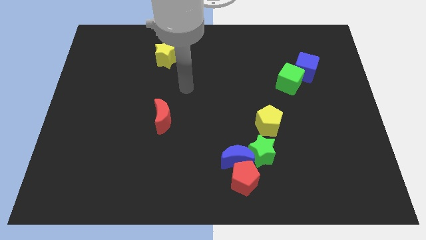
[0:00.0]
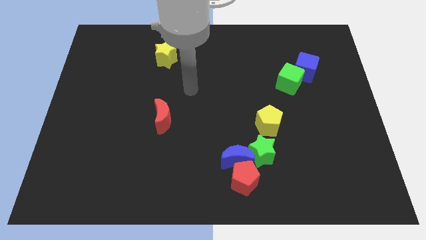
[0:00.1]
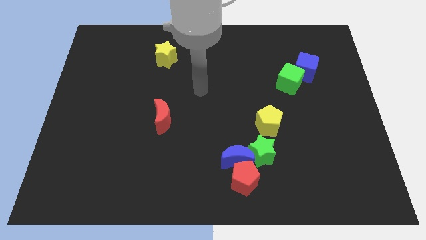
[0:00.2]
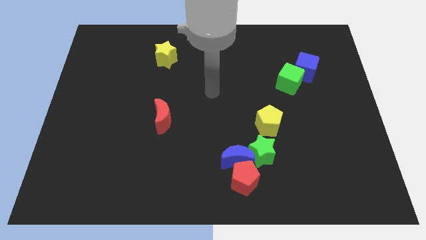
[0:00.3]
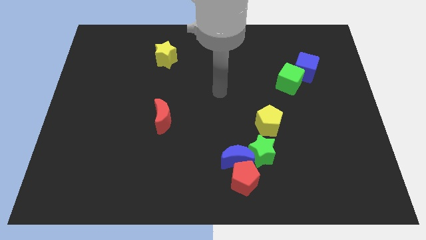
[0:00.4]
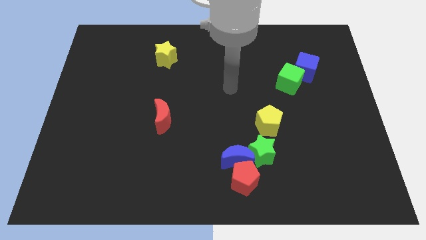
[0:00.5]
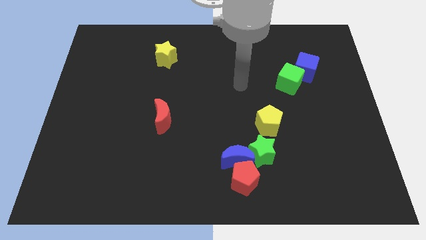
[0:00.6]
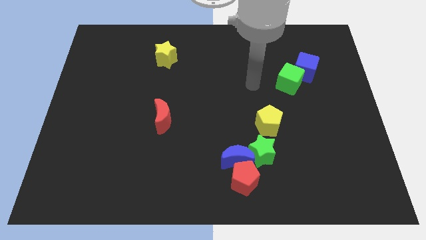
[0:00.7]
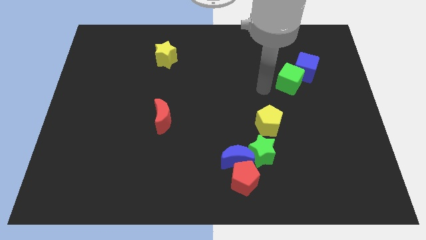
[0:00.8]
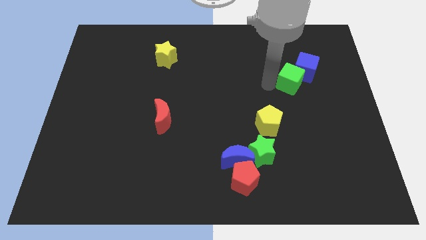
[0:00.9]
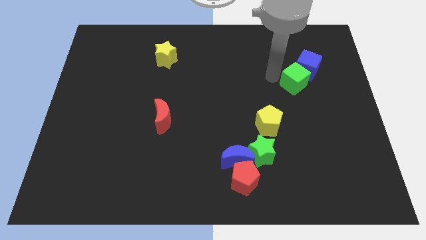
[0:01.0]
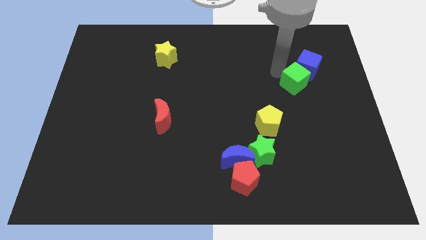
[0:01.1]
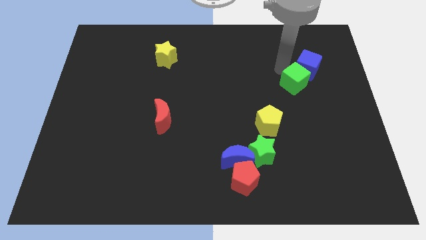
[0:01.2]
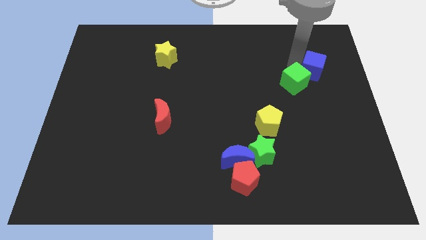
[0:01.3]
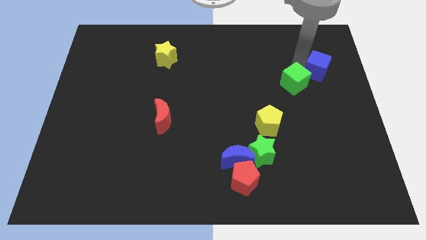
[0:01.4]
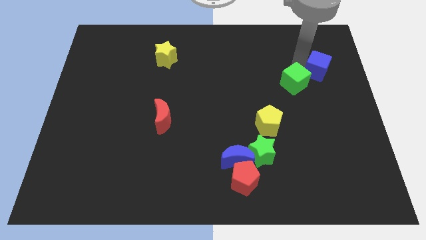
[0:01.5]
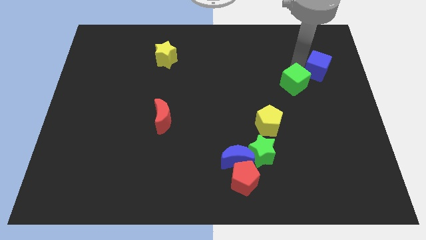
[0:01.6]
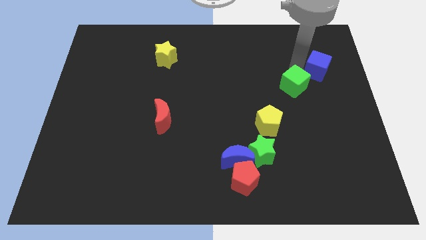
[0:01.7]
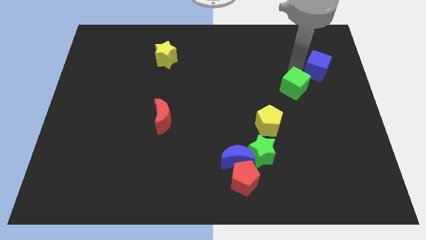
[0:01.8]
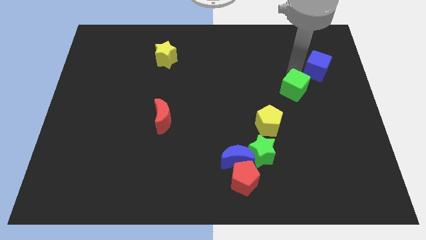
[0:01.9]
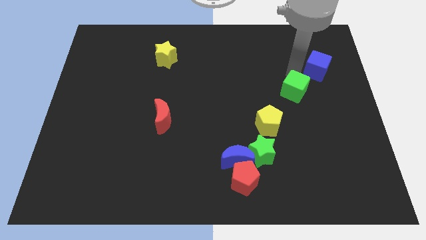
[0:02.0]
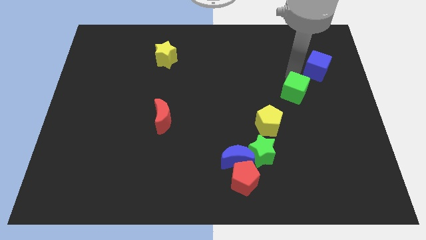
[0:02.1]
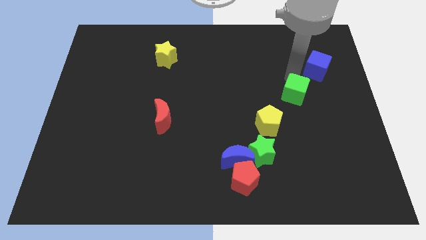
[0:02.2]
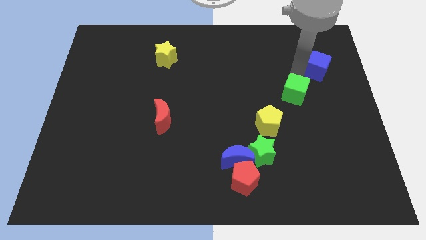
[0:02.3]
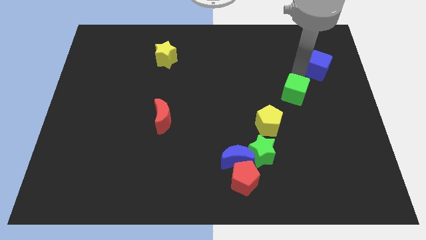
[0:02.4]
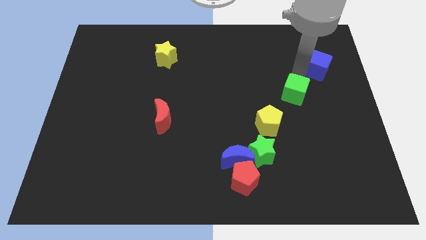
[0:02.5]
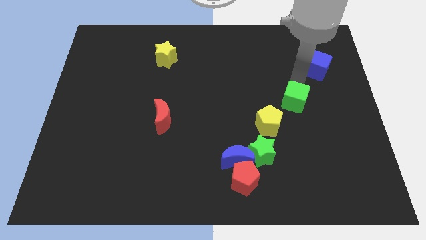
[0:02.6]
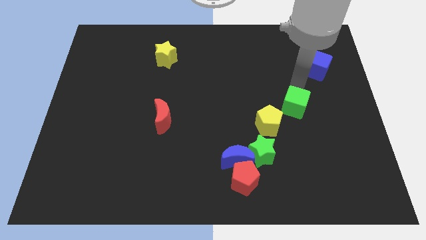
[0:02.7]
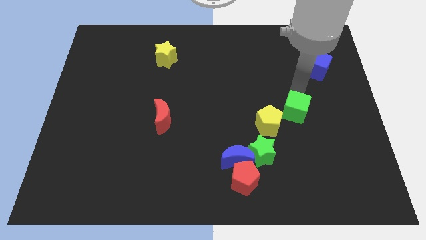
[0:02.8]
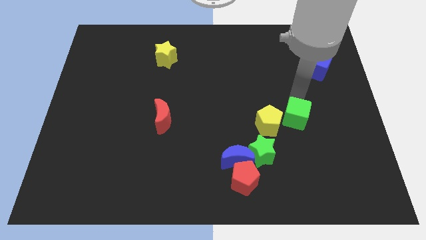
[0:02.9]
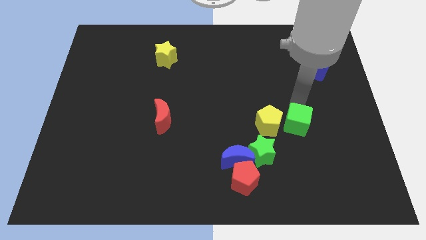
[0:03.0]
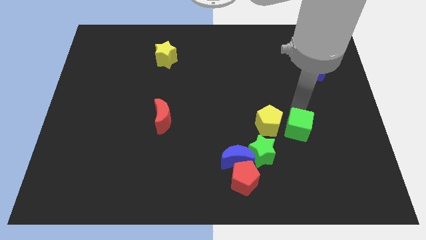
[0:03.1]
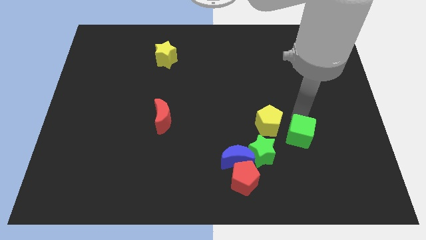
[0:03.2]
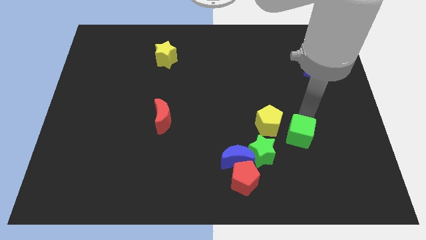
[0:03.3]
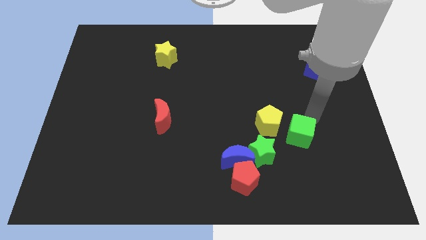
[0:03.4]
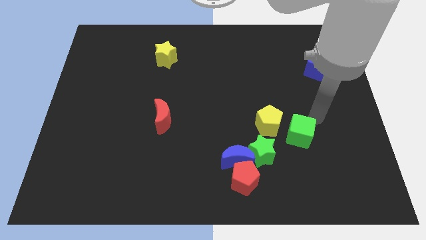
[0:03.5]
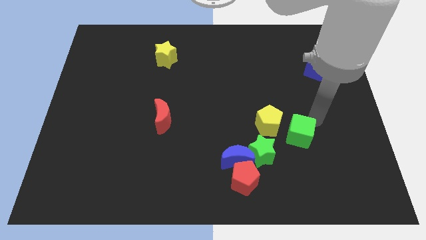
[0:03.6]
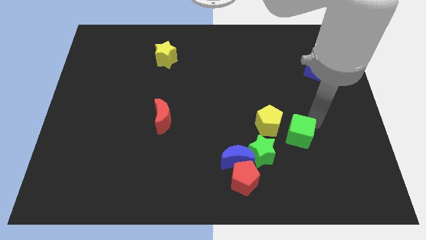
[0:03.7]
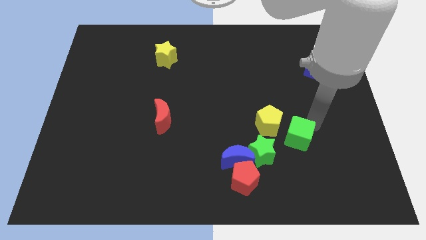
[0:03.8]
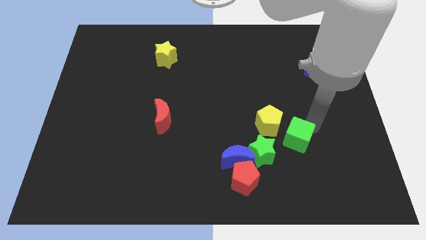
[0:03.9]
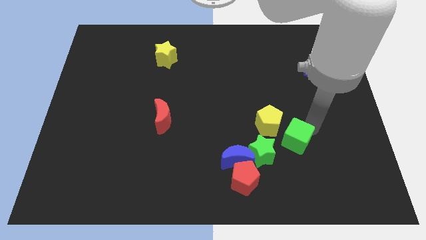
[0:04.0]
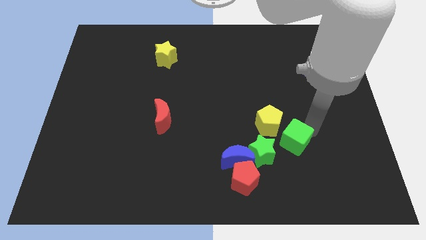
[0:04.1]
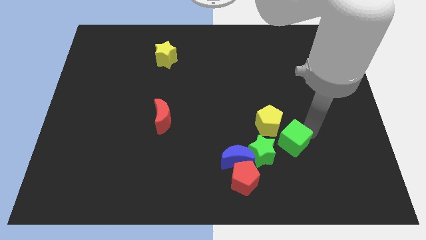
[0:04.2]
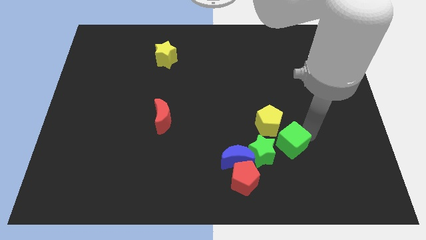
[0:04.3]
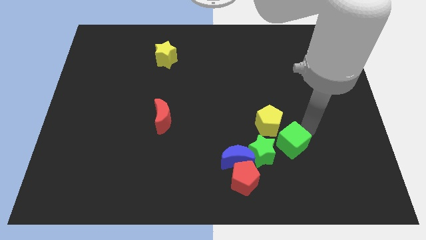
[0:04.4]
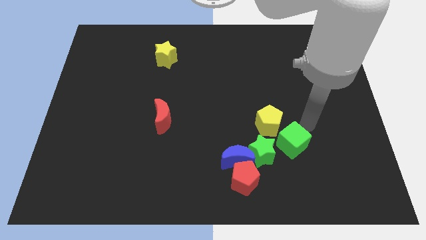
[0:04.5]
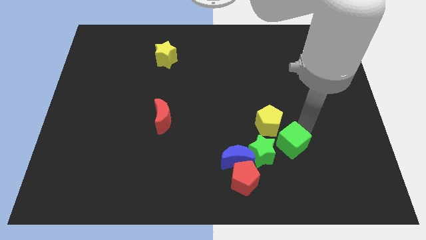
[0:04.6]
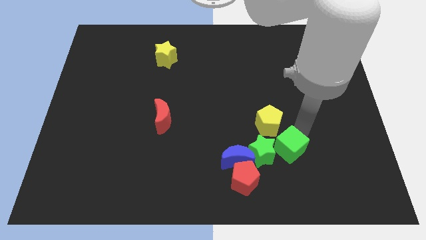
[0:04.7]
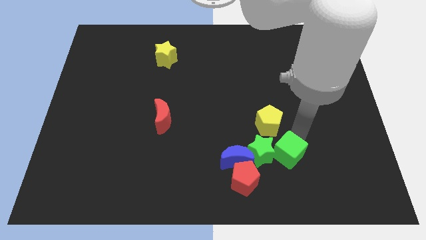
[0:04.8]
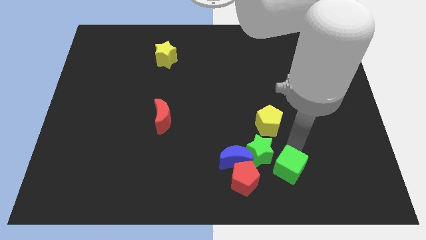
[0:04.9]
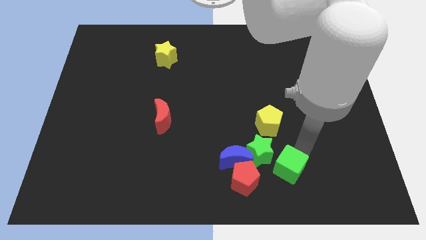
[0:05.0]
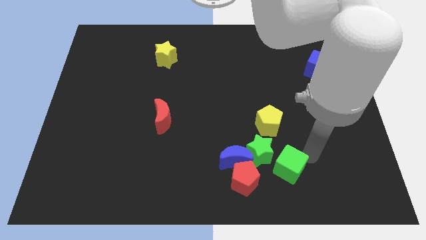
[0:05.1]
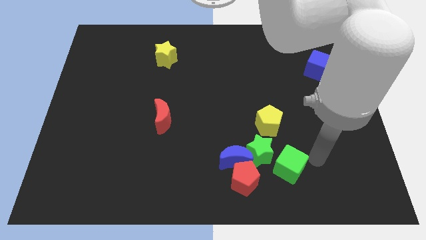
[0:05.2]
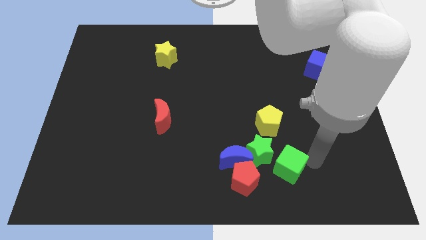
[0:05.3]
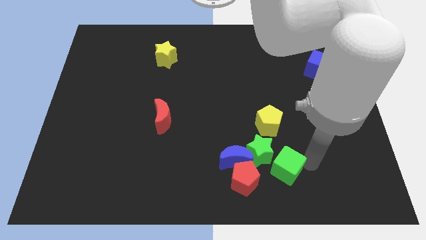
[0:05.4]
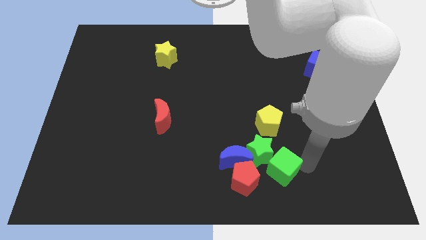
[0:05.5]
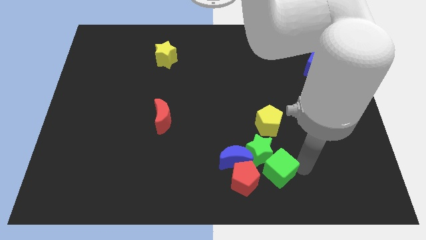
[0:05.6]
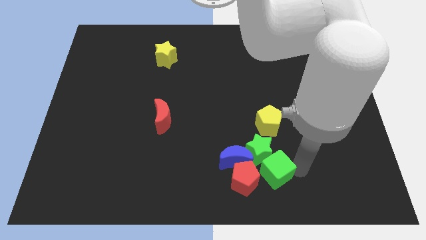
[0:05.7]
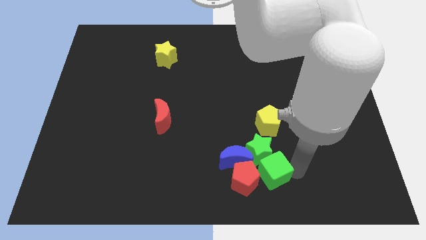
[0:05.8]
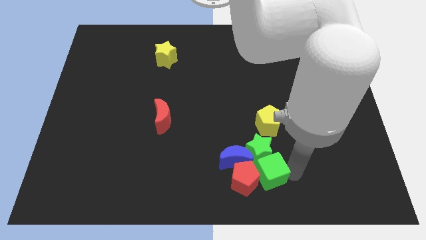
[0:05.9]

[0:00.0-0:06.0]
move the green cube close to the red pentagon
